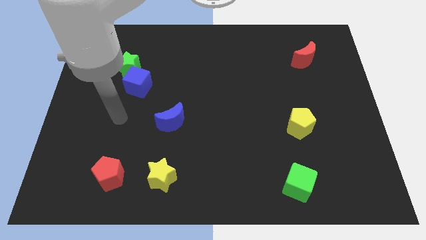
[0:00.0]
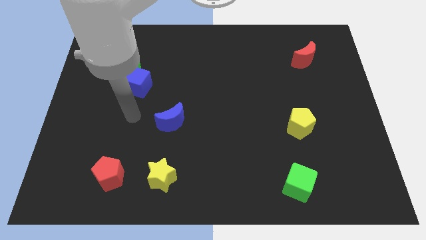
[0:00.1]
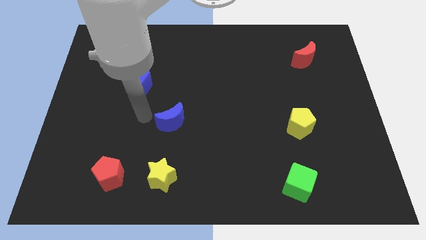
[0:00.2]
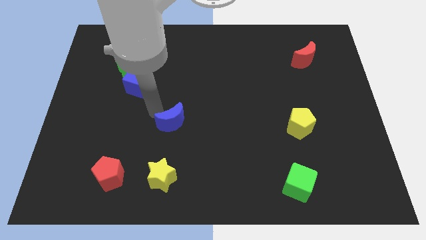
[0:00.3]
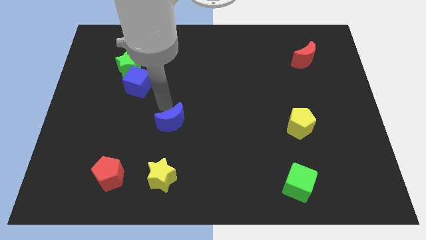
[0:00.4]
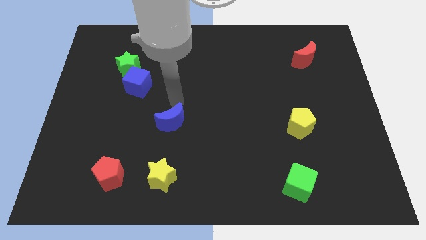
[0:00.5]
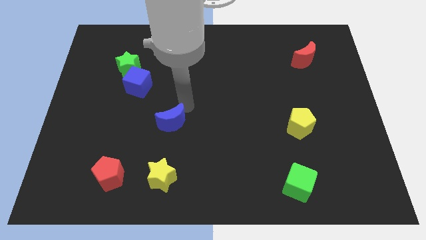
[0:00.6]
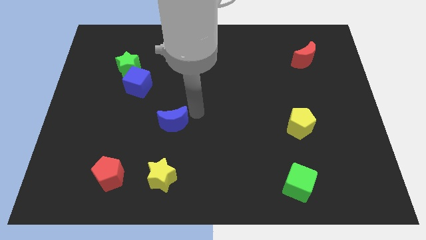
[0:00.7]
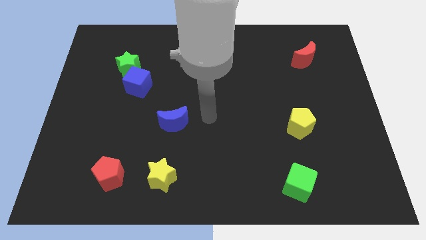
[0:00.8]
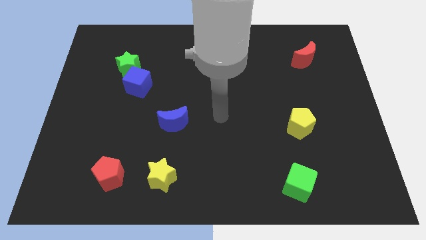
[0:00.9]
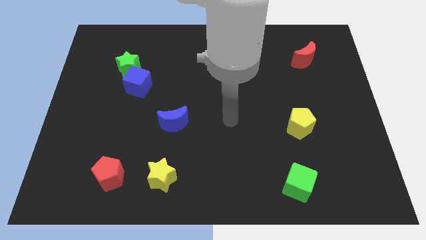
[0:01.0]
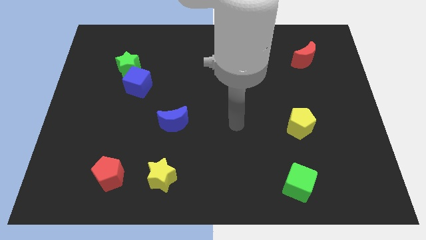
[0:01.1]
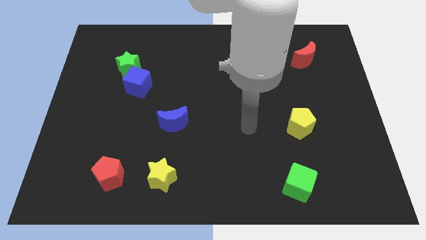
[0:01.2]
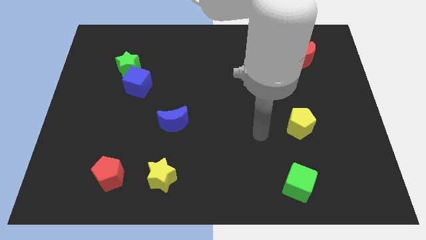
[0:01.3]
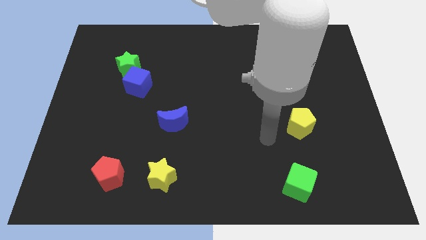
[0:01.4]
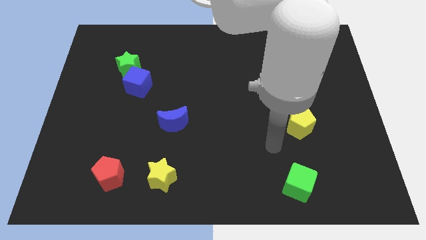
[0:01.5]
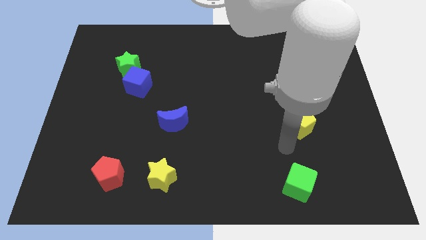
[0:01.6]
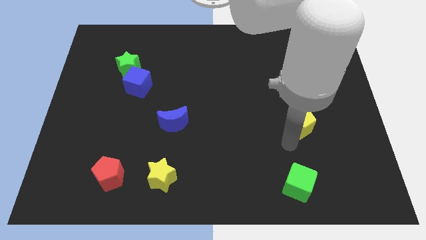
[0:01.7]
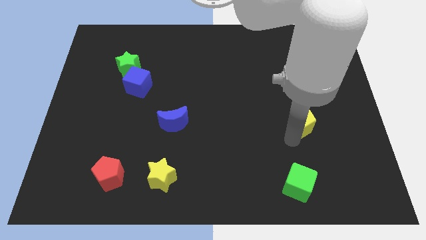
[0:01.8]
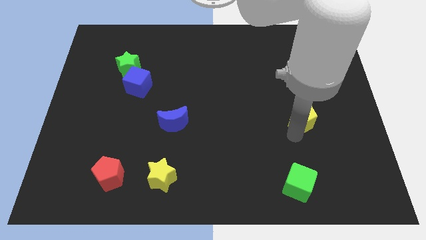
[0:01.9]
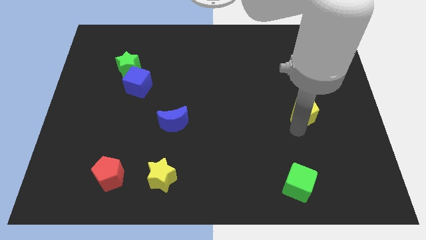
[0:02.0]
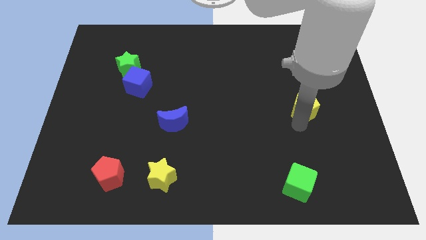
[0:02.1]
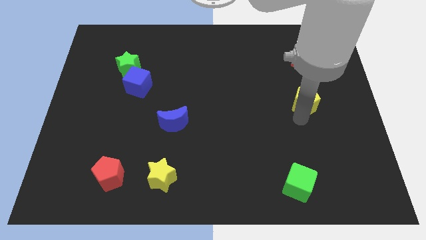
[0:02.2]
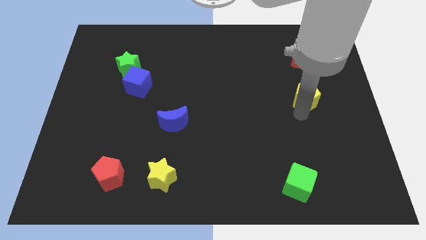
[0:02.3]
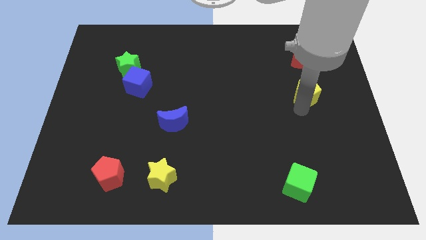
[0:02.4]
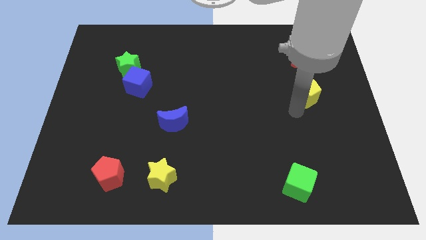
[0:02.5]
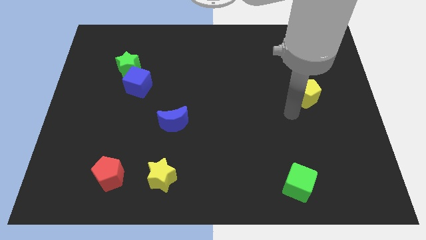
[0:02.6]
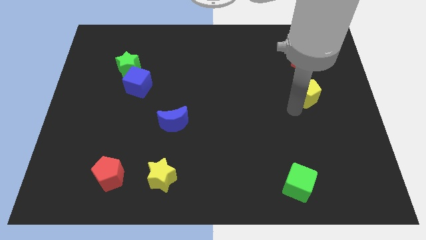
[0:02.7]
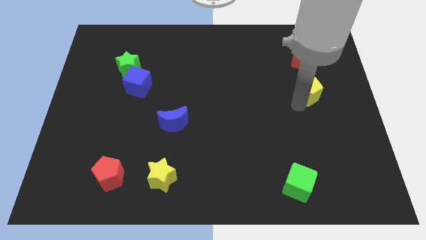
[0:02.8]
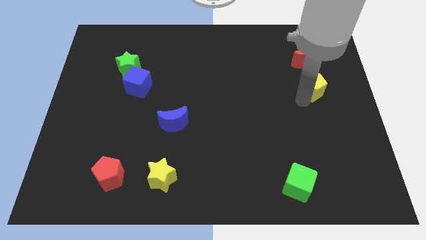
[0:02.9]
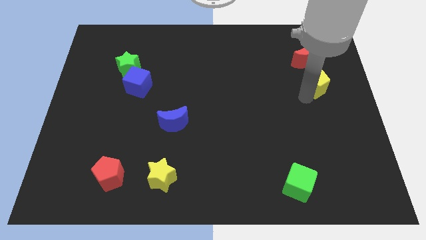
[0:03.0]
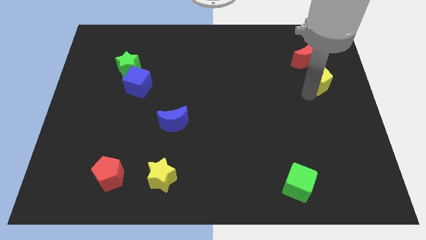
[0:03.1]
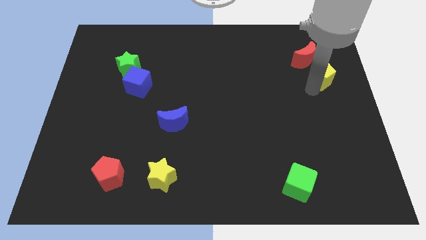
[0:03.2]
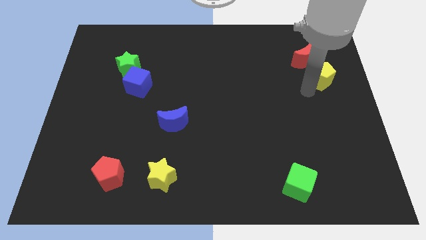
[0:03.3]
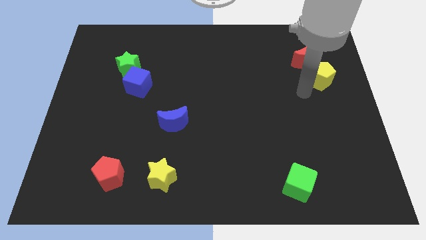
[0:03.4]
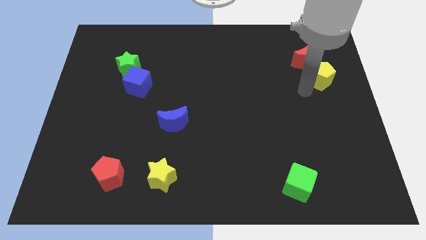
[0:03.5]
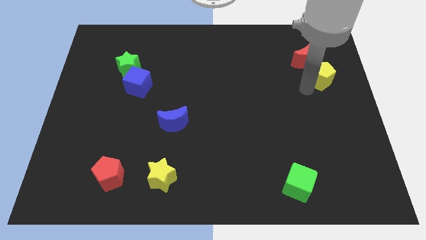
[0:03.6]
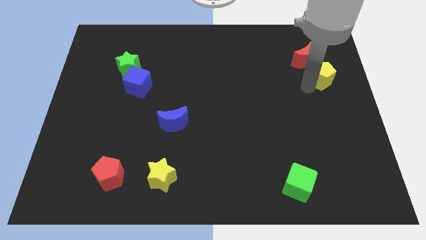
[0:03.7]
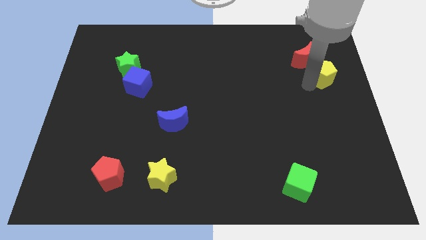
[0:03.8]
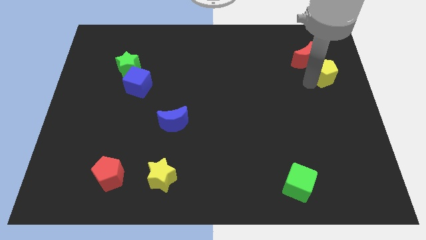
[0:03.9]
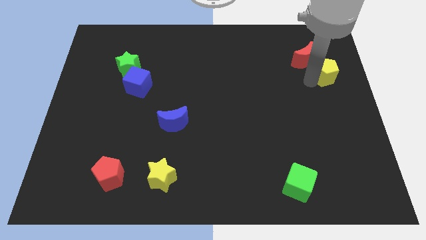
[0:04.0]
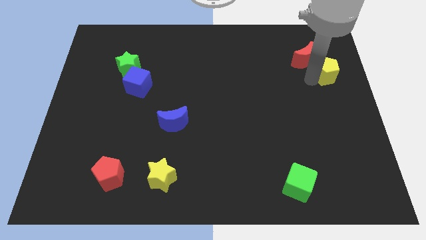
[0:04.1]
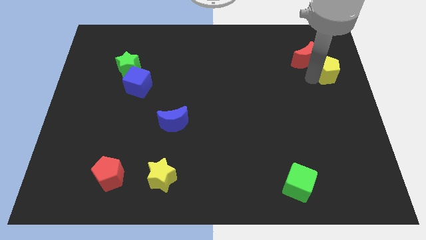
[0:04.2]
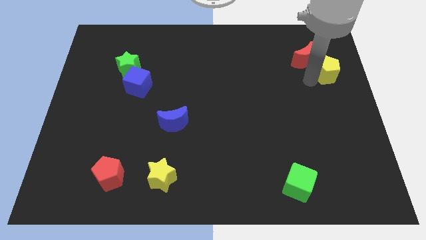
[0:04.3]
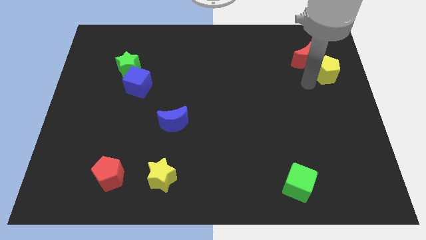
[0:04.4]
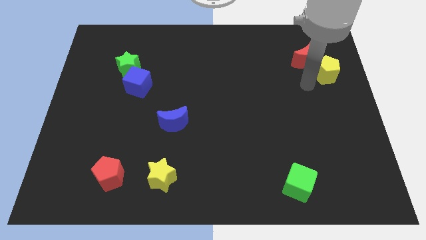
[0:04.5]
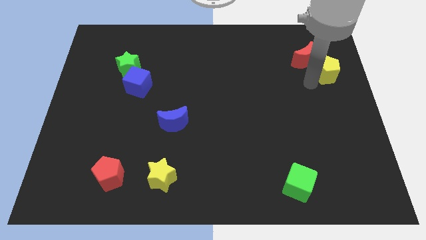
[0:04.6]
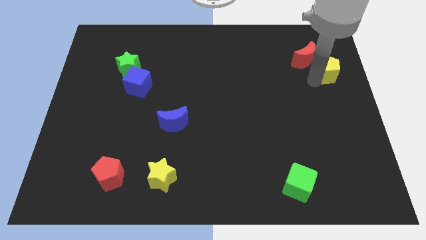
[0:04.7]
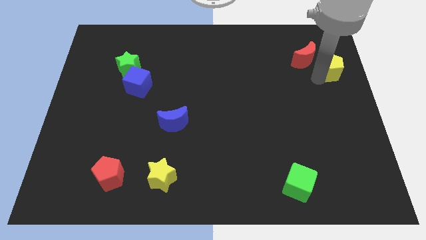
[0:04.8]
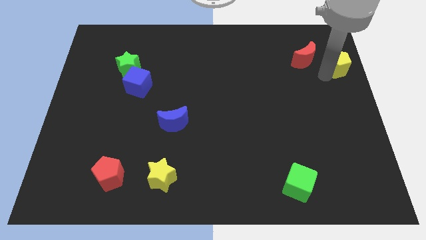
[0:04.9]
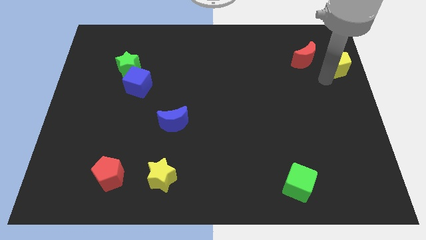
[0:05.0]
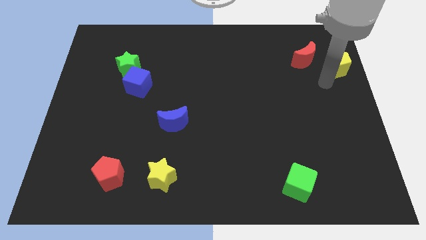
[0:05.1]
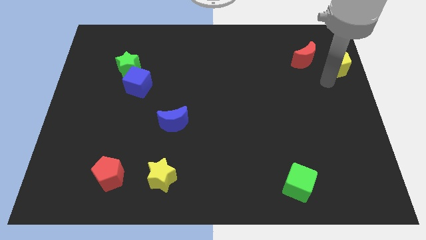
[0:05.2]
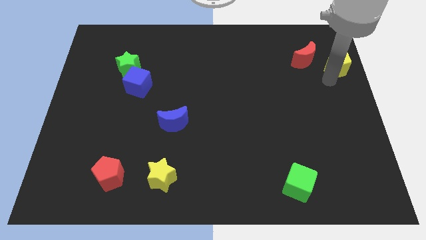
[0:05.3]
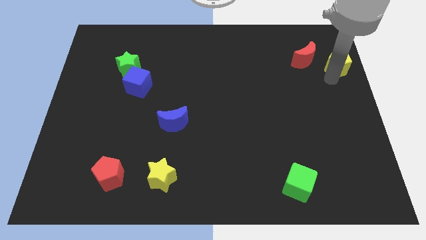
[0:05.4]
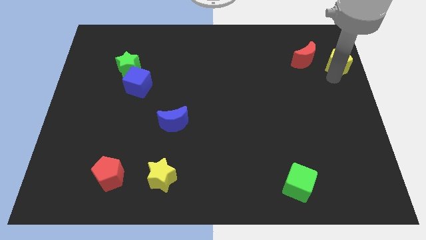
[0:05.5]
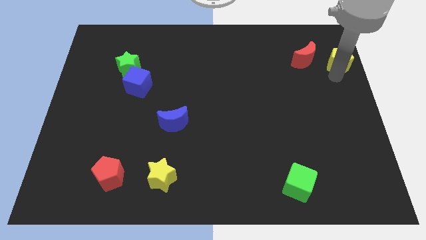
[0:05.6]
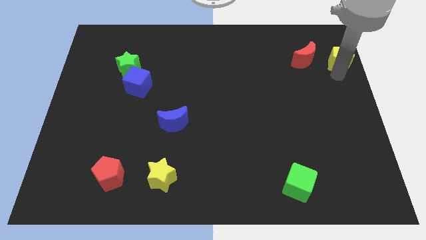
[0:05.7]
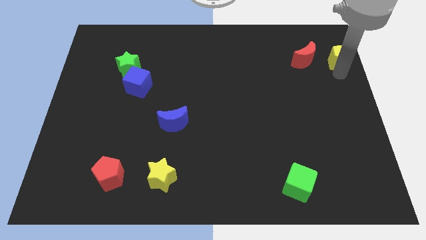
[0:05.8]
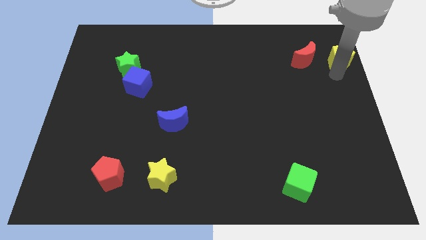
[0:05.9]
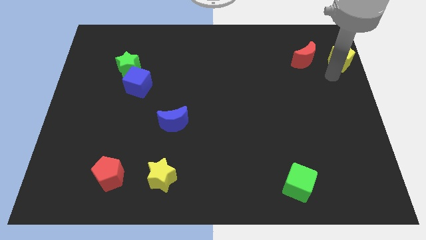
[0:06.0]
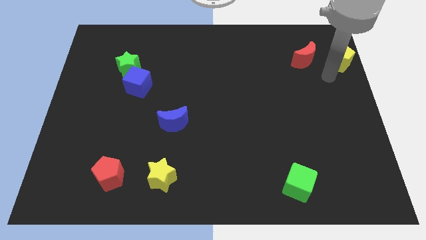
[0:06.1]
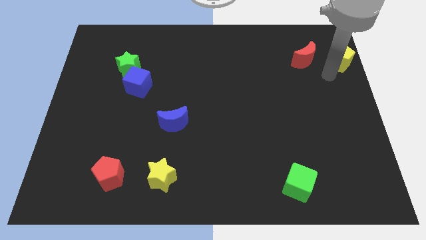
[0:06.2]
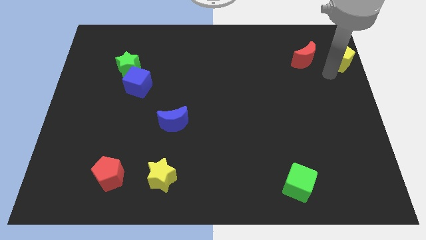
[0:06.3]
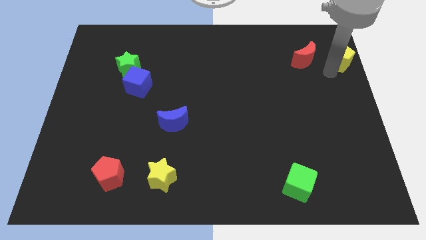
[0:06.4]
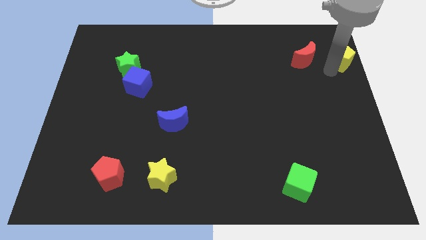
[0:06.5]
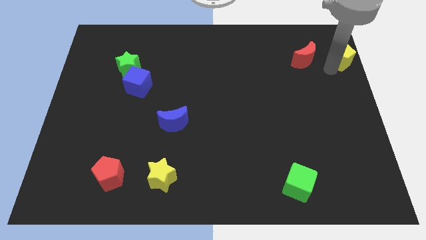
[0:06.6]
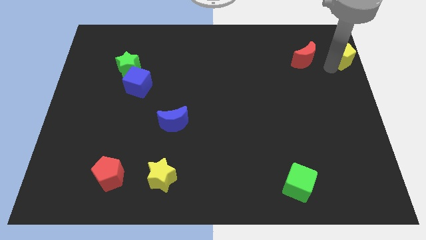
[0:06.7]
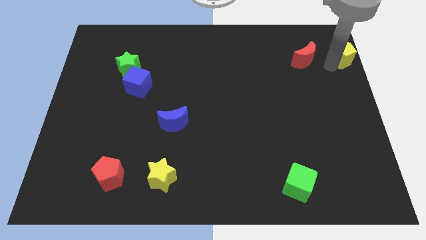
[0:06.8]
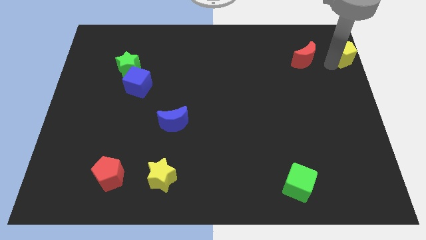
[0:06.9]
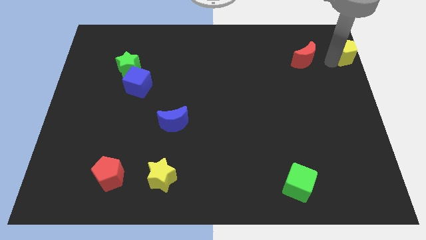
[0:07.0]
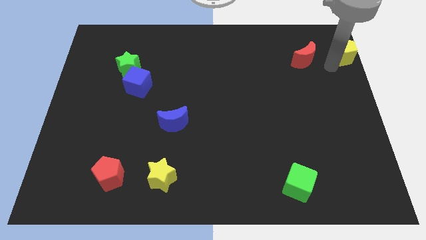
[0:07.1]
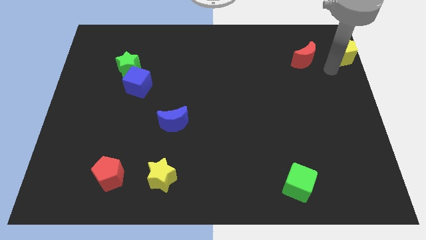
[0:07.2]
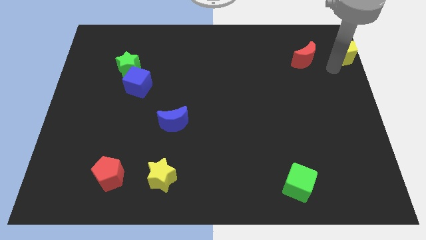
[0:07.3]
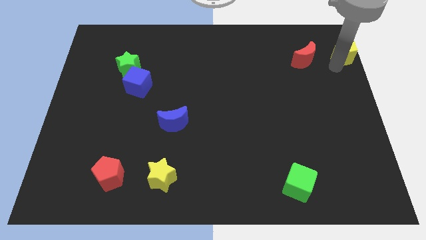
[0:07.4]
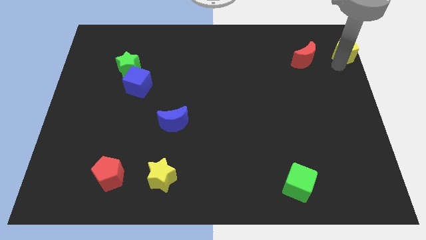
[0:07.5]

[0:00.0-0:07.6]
move the yellow pentagon to the top right of the board
